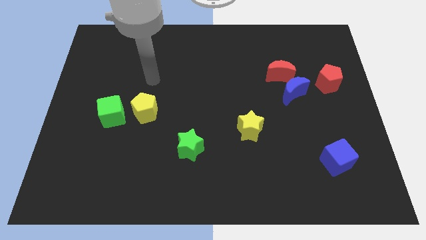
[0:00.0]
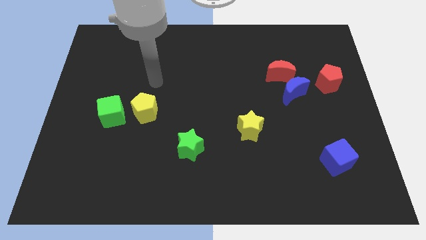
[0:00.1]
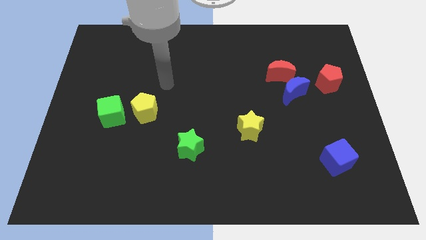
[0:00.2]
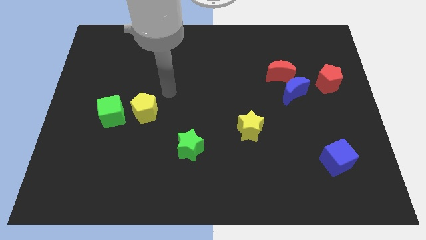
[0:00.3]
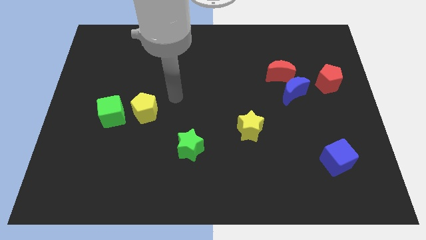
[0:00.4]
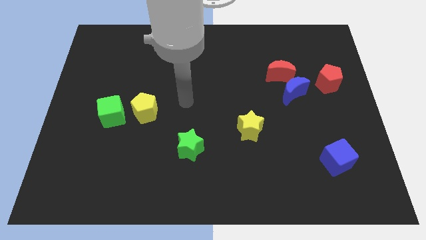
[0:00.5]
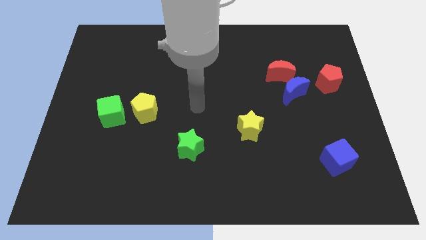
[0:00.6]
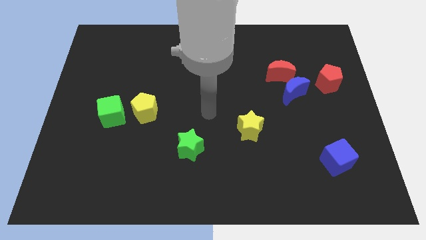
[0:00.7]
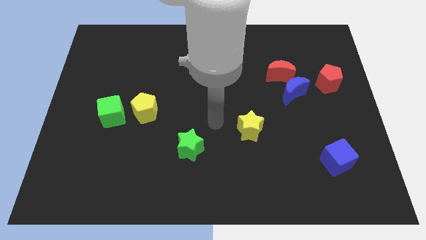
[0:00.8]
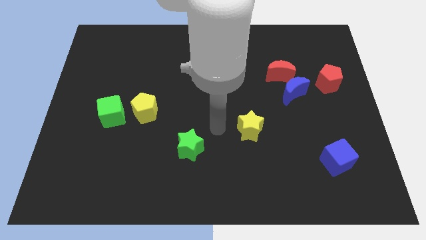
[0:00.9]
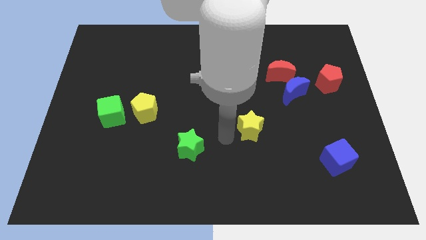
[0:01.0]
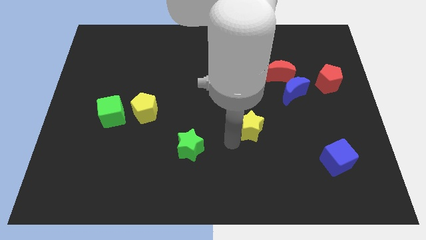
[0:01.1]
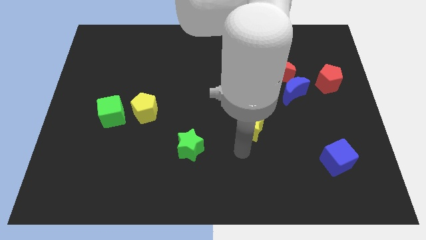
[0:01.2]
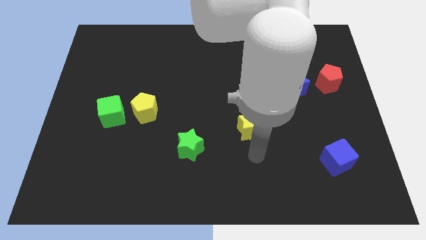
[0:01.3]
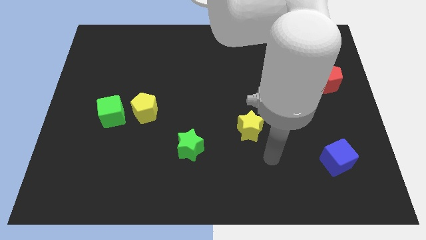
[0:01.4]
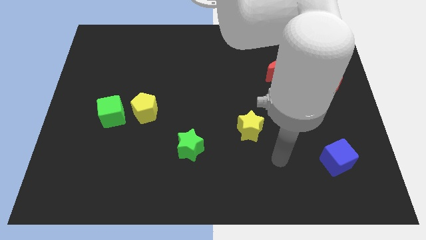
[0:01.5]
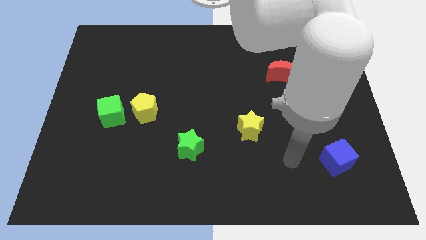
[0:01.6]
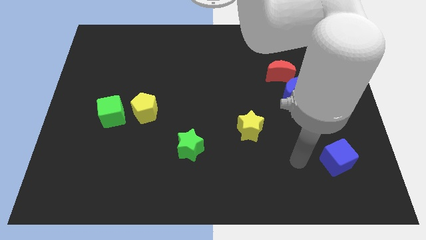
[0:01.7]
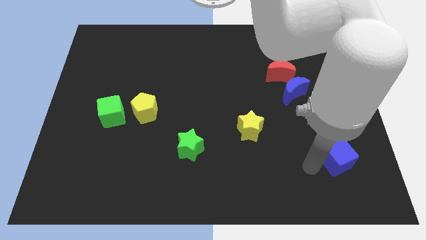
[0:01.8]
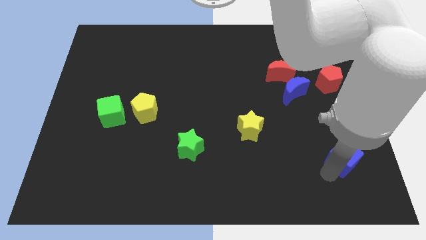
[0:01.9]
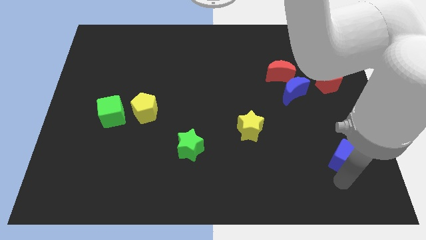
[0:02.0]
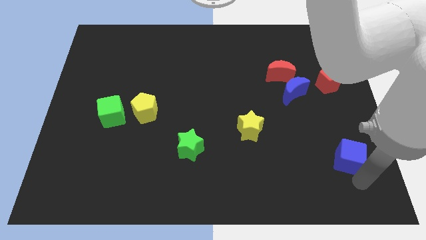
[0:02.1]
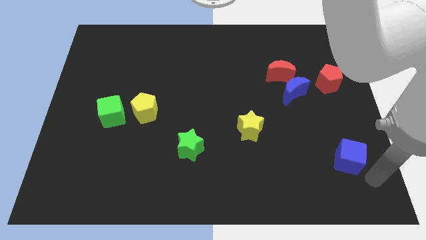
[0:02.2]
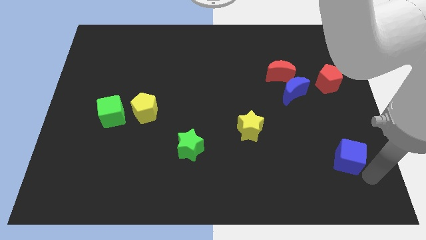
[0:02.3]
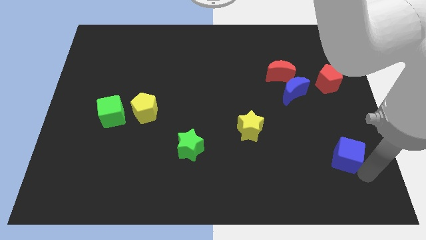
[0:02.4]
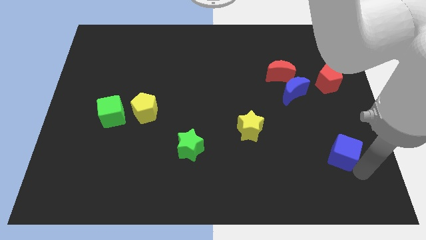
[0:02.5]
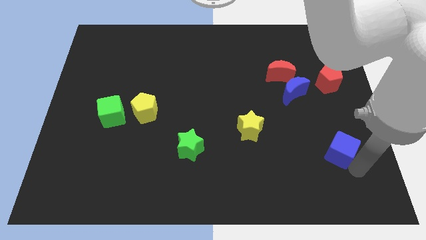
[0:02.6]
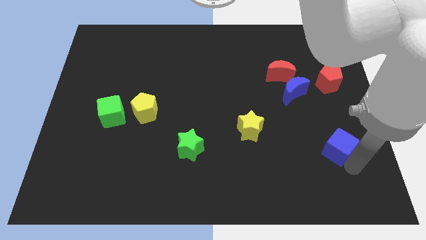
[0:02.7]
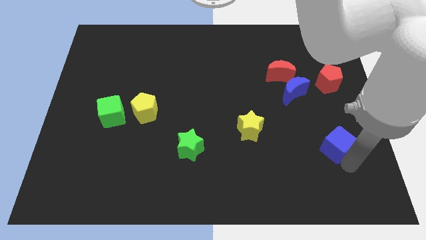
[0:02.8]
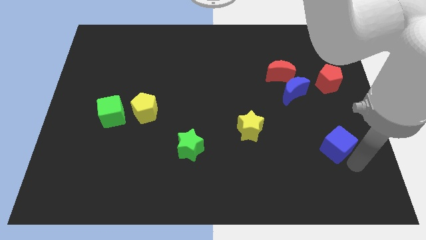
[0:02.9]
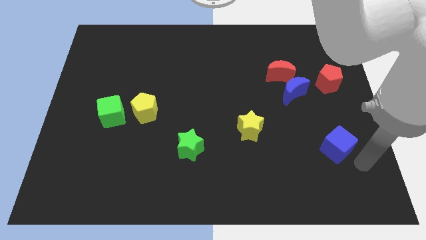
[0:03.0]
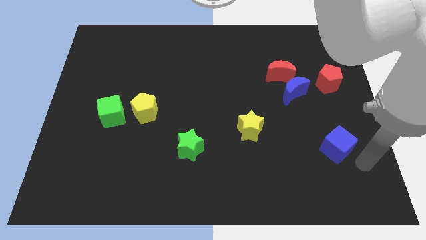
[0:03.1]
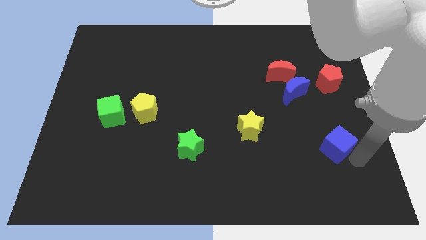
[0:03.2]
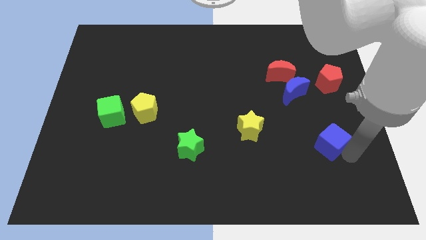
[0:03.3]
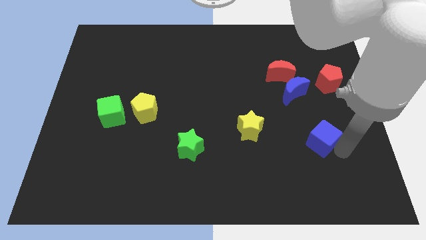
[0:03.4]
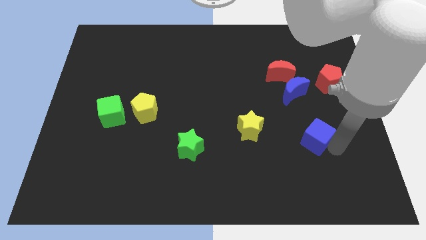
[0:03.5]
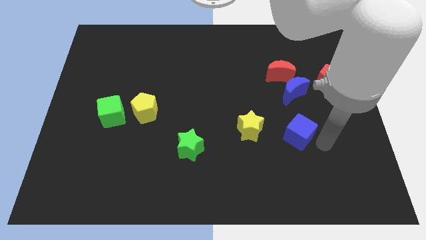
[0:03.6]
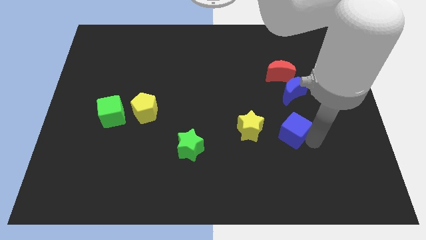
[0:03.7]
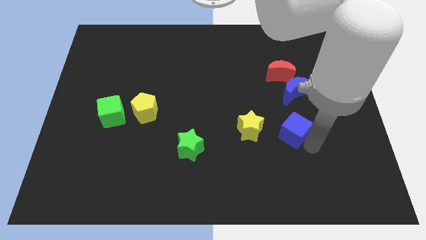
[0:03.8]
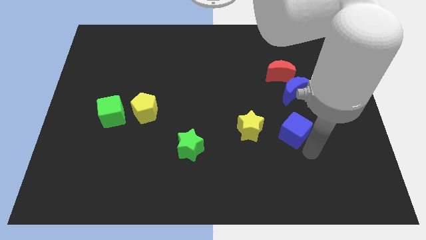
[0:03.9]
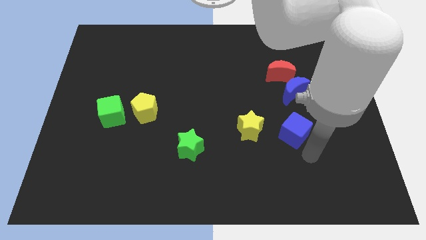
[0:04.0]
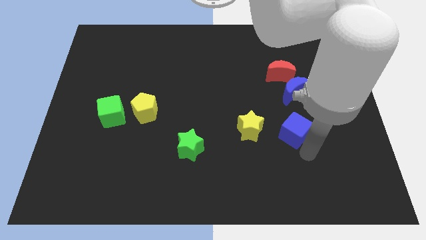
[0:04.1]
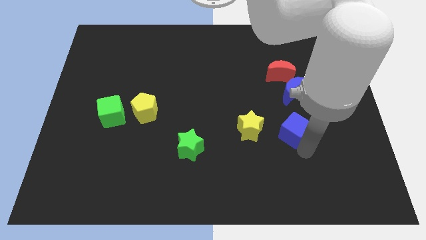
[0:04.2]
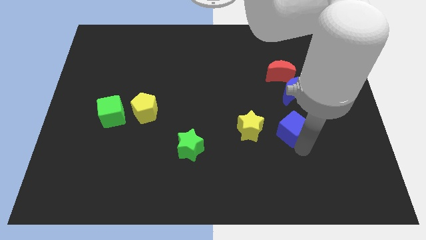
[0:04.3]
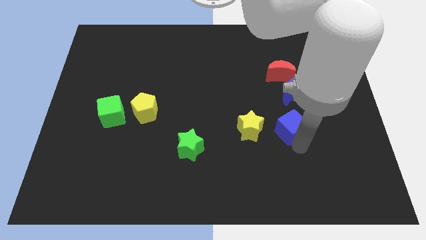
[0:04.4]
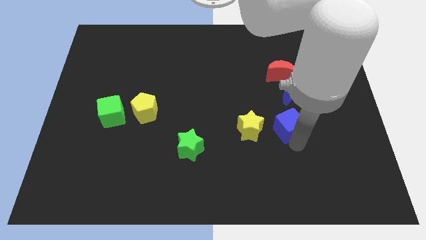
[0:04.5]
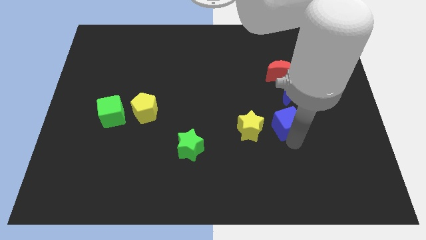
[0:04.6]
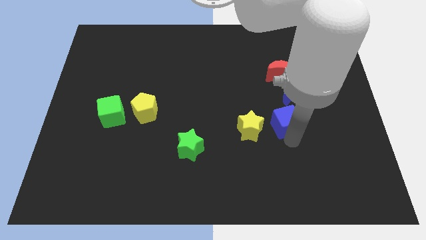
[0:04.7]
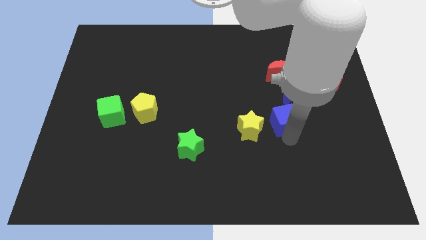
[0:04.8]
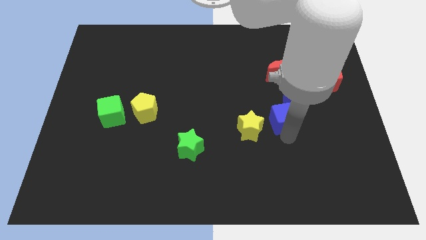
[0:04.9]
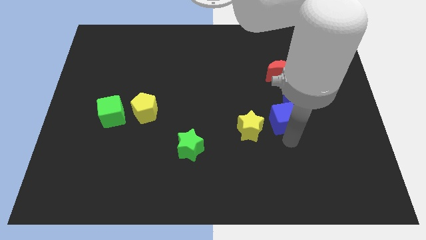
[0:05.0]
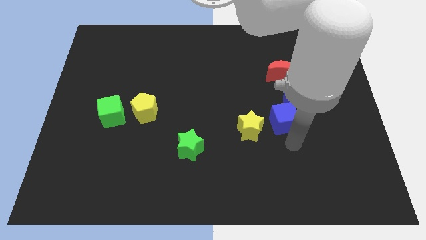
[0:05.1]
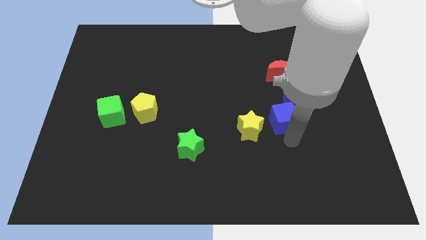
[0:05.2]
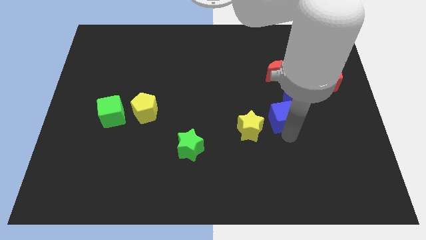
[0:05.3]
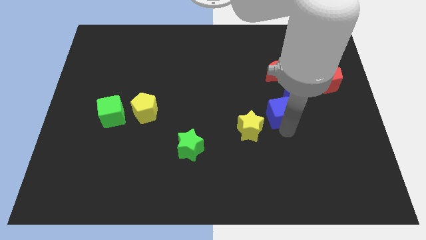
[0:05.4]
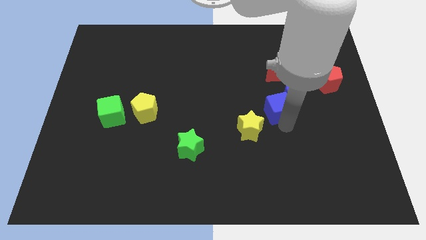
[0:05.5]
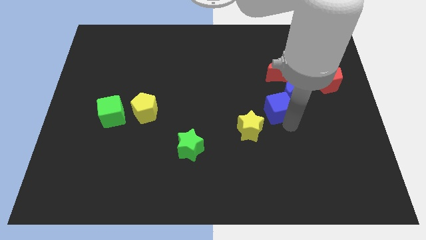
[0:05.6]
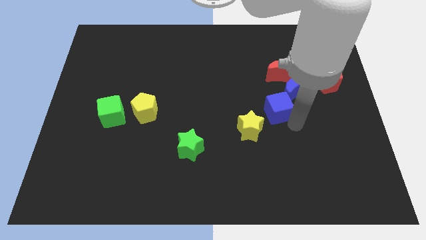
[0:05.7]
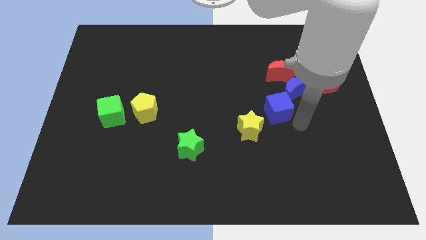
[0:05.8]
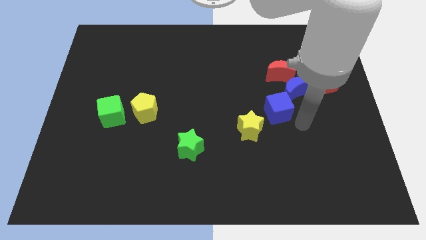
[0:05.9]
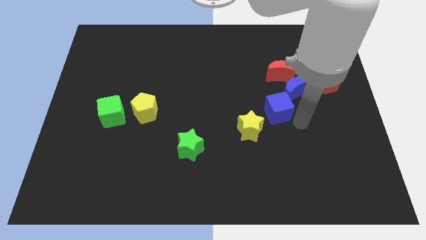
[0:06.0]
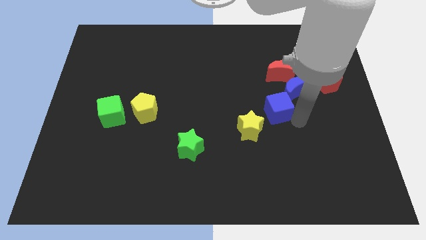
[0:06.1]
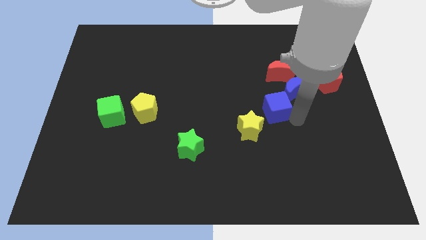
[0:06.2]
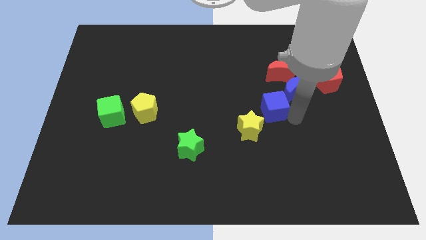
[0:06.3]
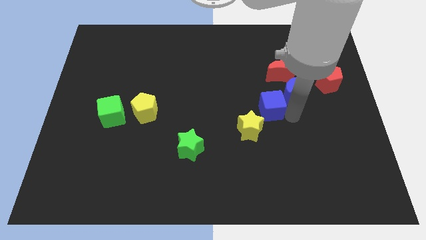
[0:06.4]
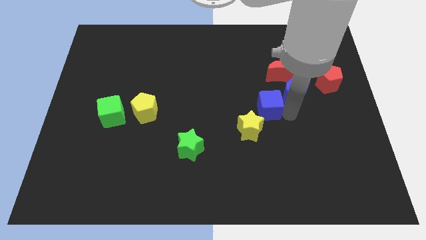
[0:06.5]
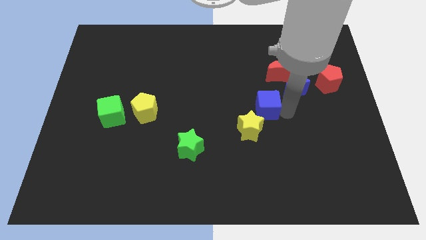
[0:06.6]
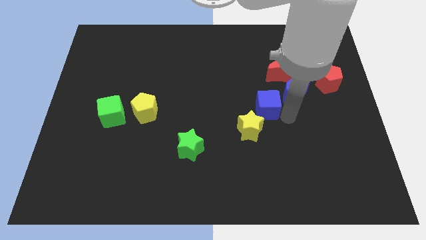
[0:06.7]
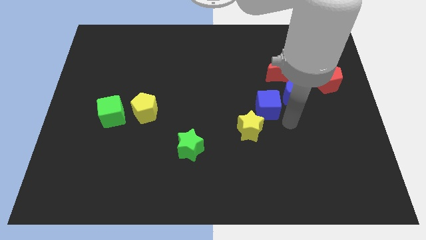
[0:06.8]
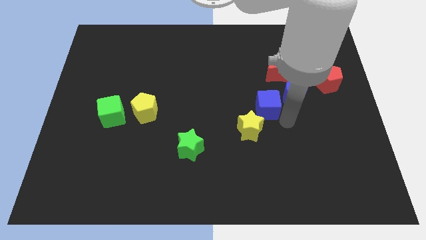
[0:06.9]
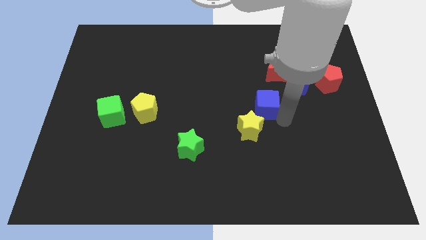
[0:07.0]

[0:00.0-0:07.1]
move the blue cube upwards and then to the left

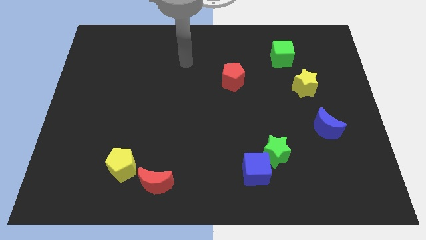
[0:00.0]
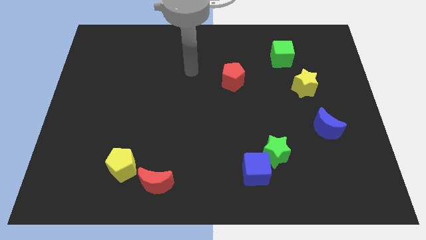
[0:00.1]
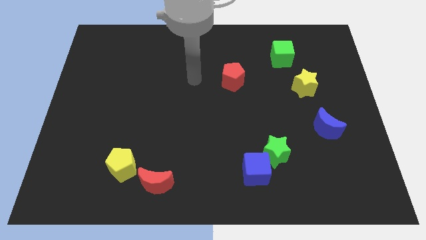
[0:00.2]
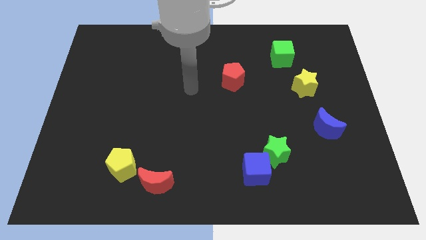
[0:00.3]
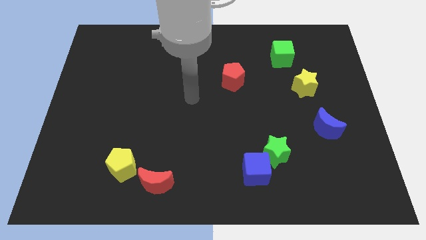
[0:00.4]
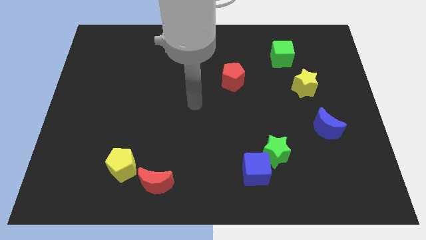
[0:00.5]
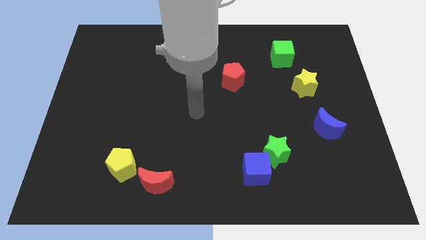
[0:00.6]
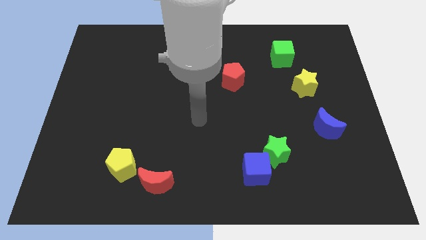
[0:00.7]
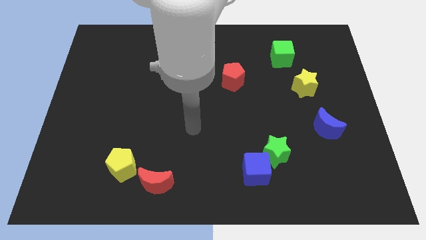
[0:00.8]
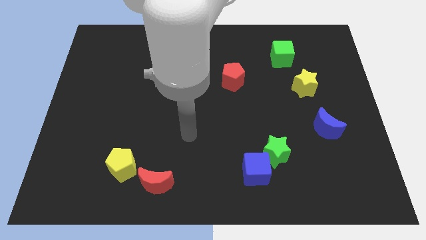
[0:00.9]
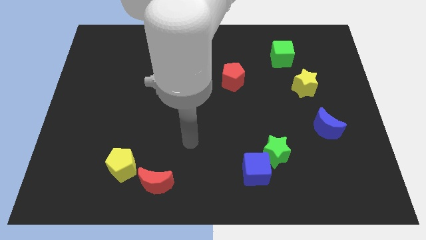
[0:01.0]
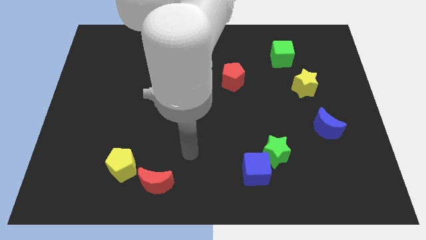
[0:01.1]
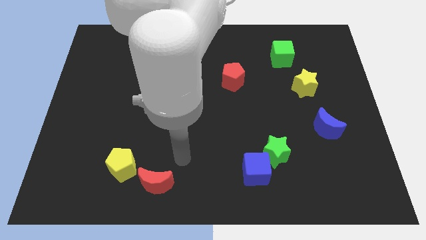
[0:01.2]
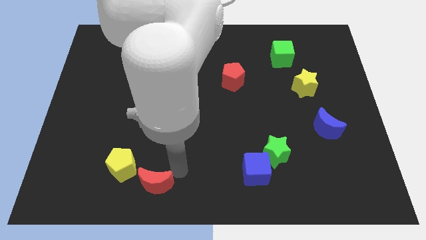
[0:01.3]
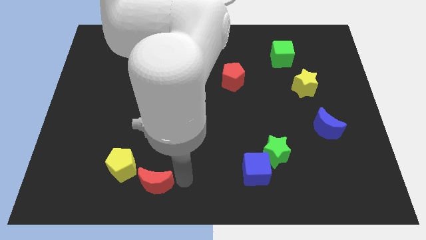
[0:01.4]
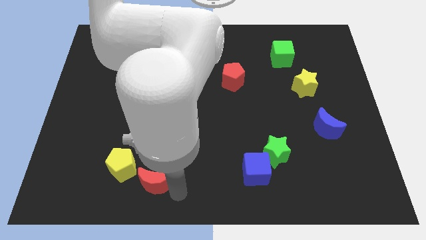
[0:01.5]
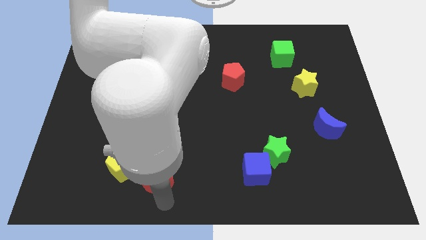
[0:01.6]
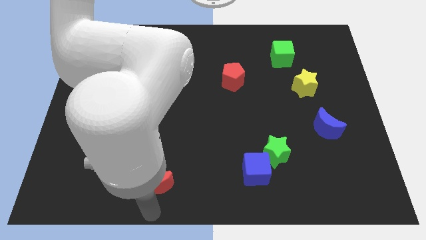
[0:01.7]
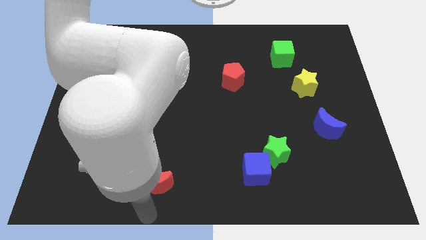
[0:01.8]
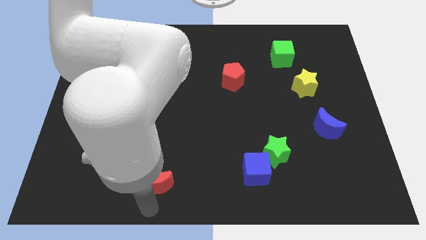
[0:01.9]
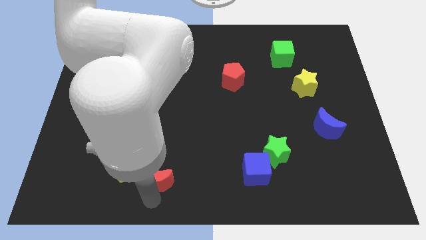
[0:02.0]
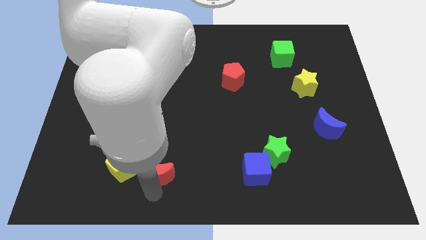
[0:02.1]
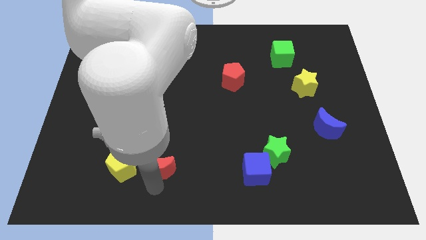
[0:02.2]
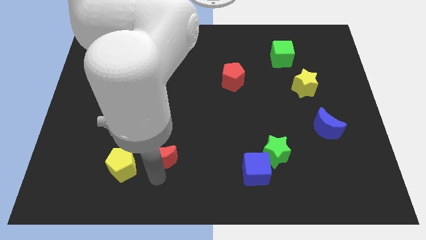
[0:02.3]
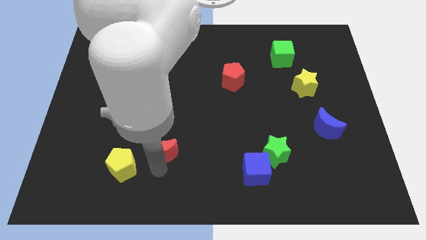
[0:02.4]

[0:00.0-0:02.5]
slightly move the red moon upwards
